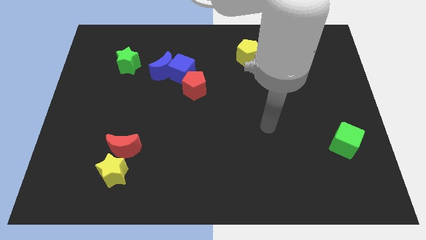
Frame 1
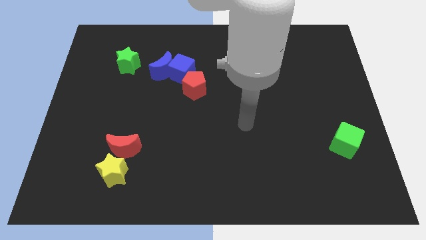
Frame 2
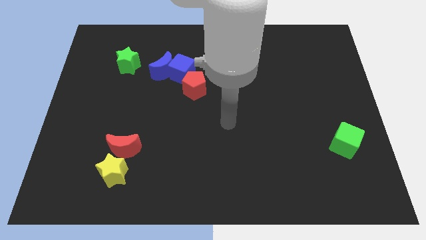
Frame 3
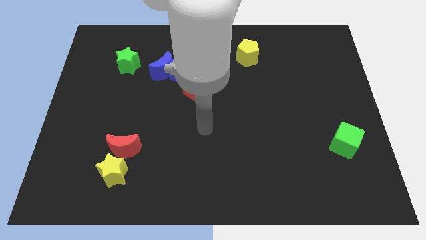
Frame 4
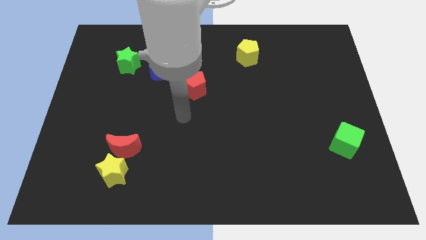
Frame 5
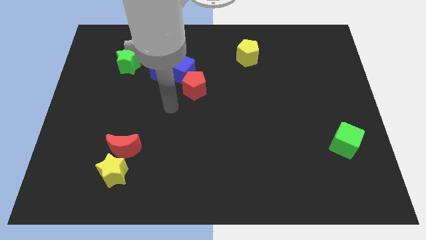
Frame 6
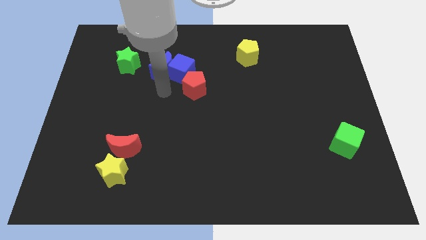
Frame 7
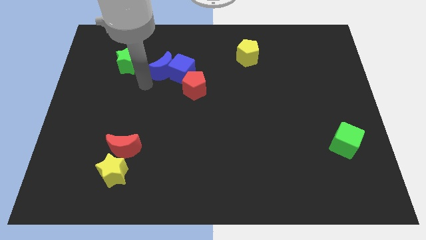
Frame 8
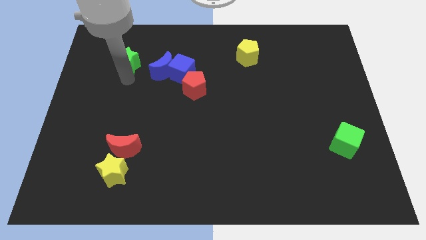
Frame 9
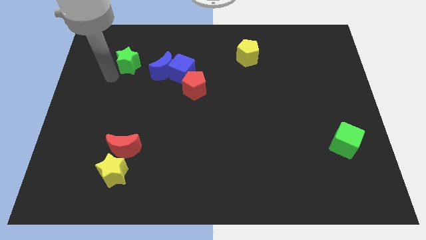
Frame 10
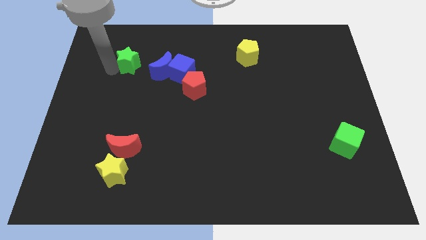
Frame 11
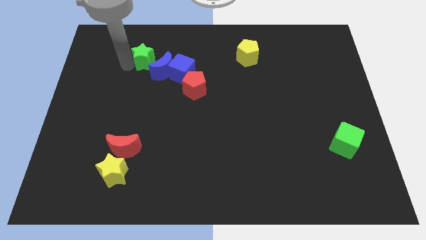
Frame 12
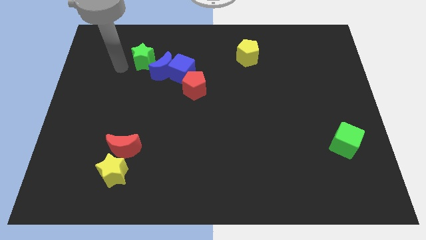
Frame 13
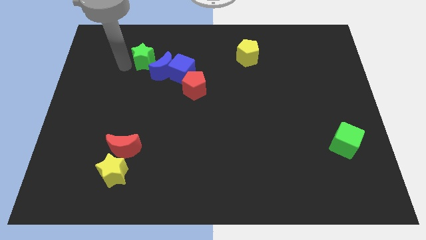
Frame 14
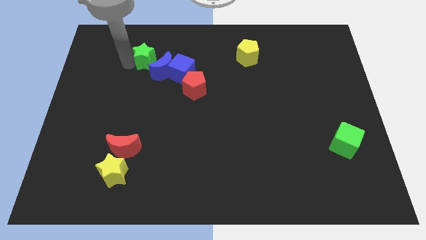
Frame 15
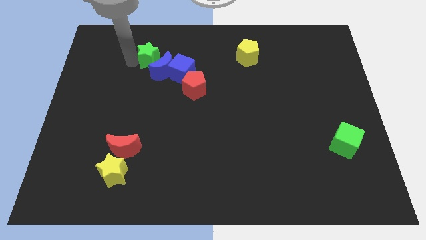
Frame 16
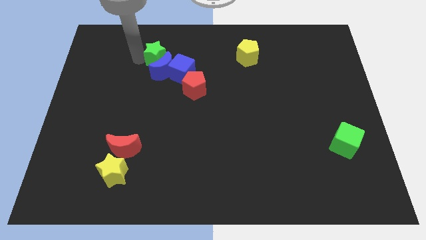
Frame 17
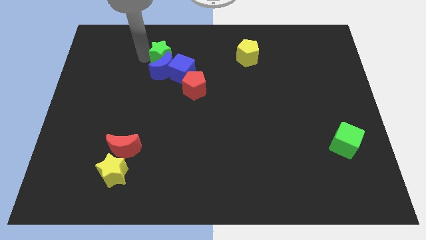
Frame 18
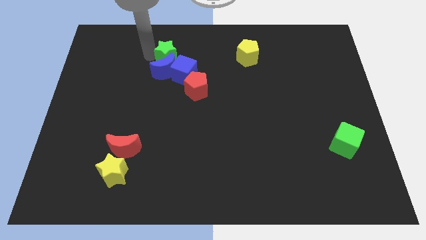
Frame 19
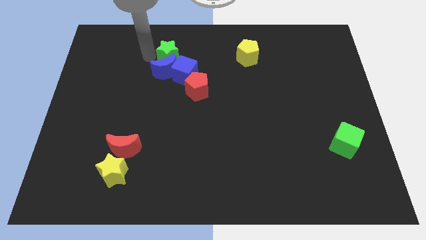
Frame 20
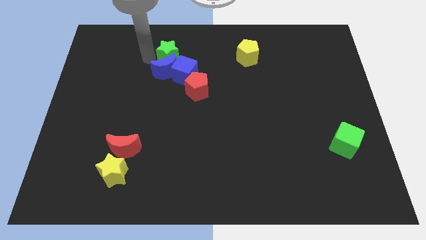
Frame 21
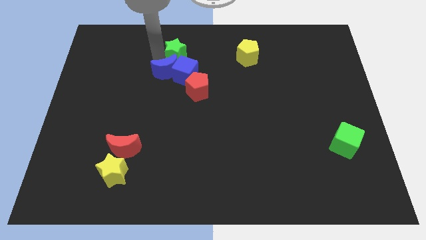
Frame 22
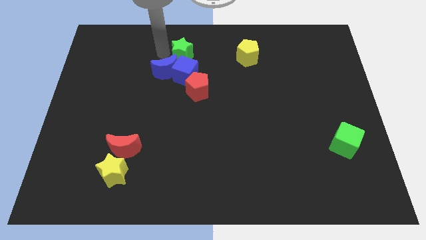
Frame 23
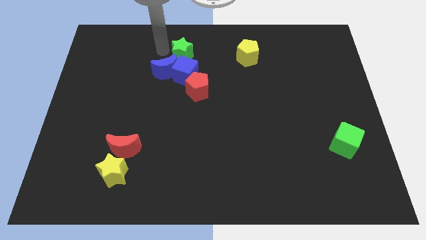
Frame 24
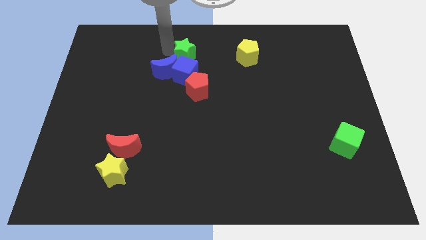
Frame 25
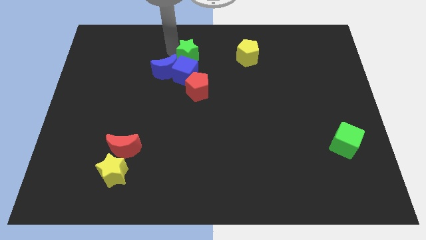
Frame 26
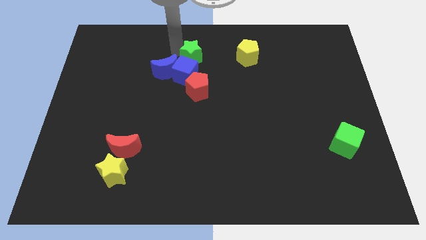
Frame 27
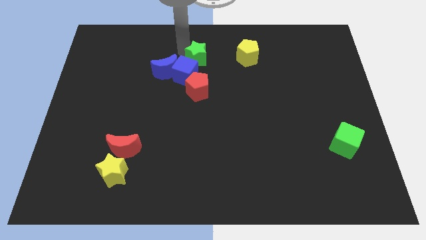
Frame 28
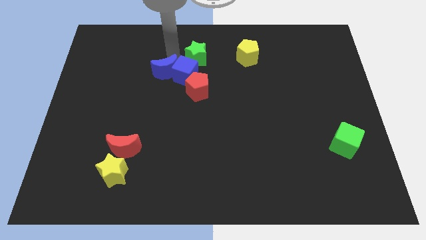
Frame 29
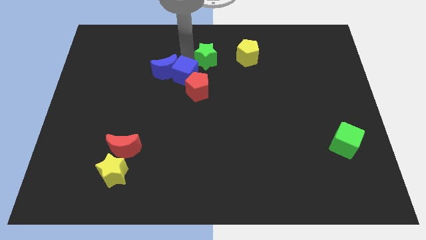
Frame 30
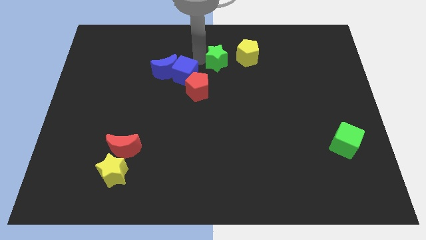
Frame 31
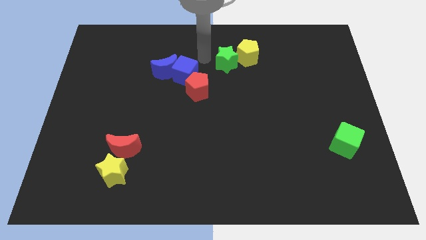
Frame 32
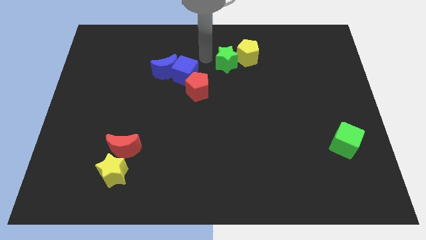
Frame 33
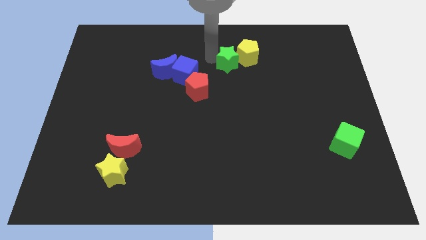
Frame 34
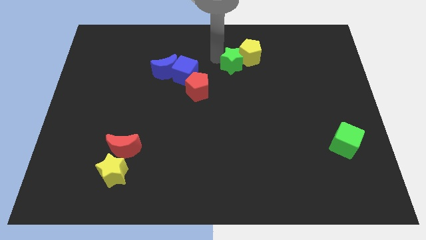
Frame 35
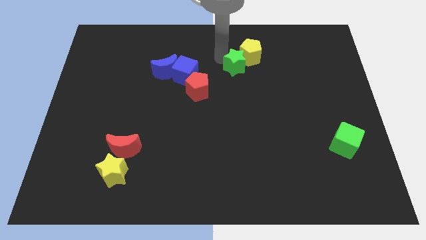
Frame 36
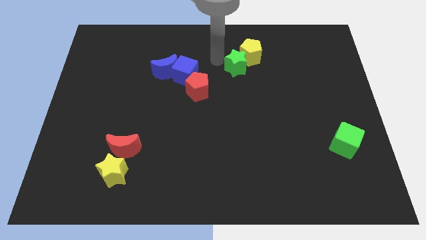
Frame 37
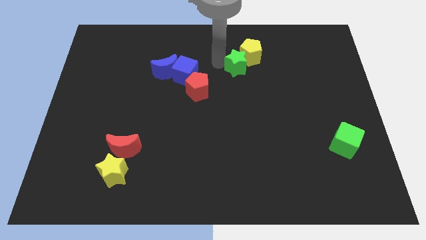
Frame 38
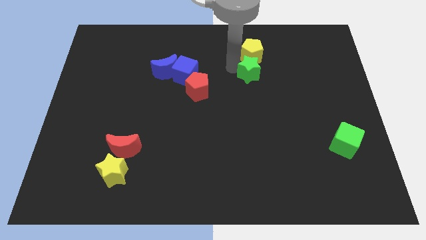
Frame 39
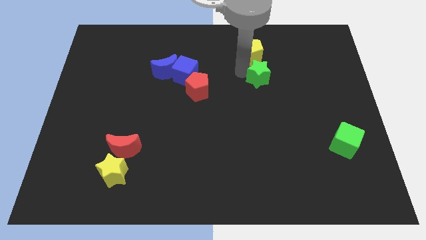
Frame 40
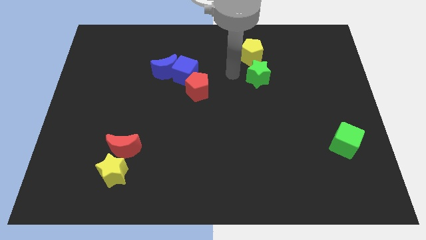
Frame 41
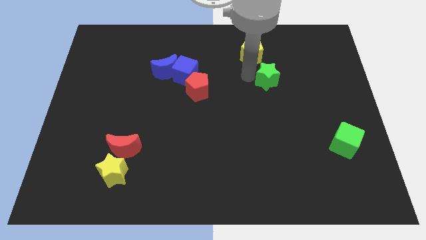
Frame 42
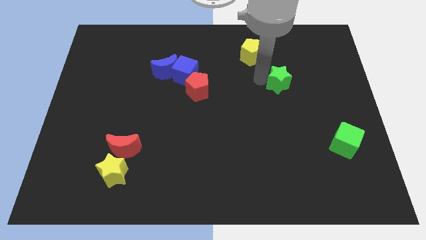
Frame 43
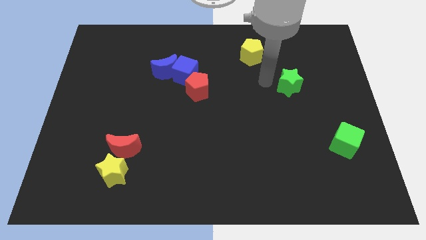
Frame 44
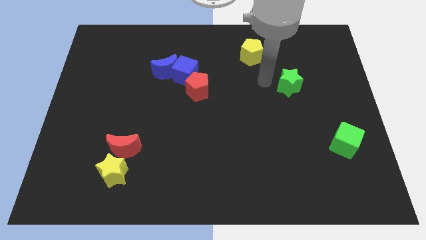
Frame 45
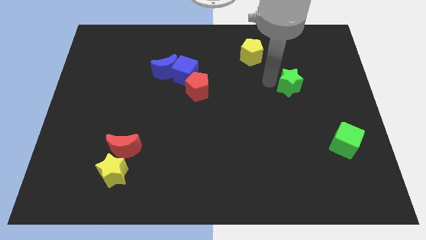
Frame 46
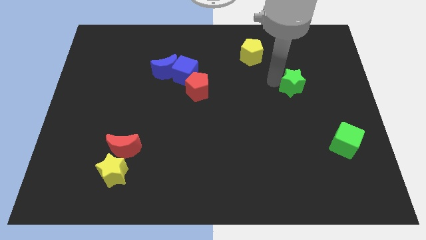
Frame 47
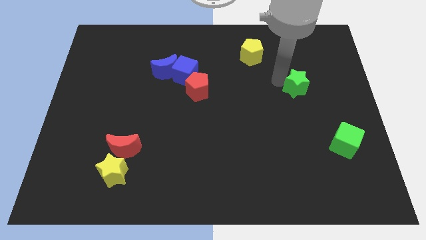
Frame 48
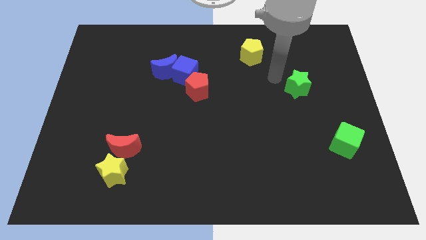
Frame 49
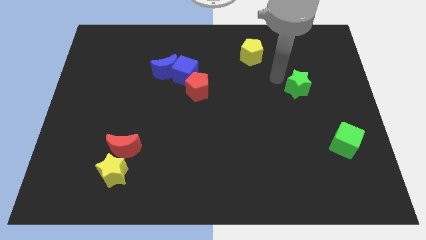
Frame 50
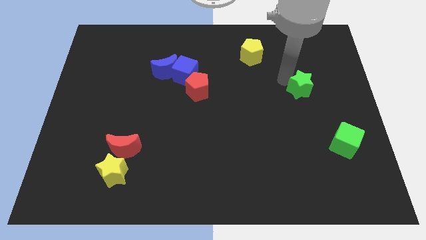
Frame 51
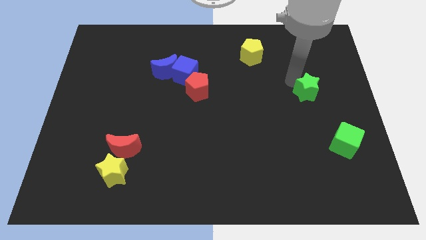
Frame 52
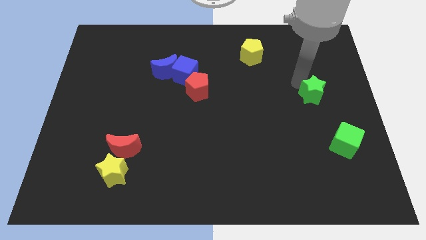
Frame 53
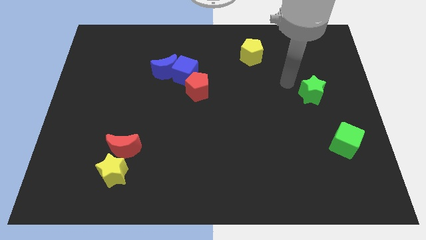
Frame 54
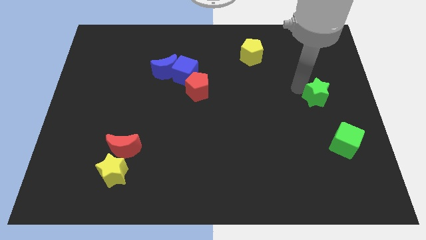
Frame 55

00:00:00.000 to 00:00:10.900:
slide the green star above the green cube

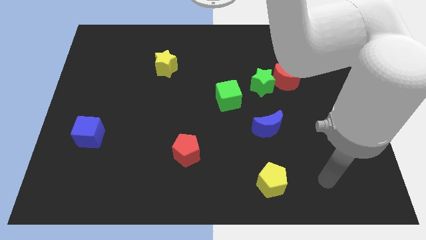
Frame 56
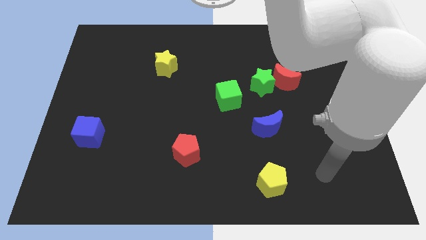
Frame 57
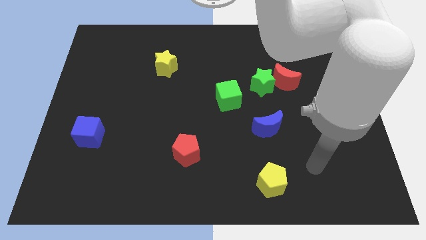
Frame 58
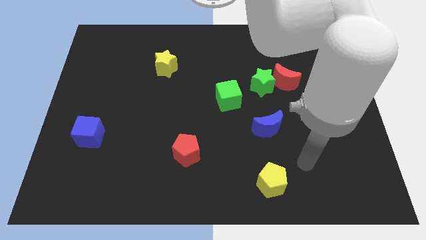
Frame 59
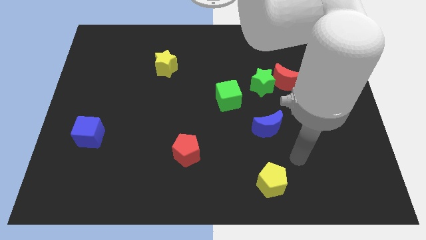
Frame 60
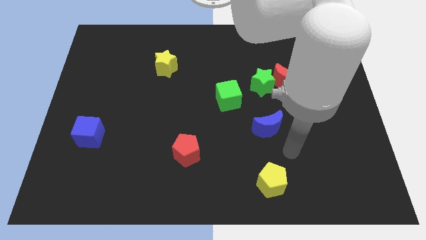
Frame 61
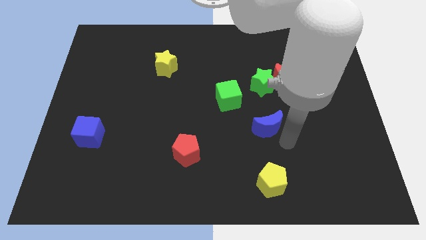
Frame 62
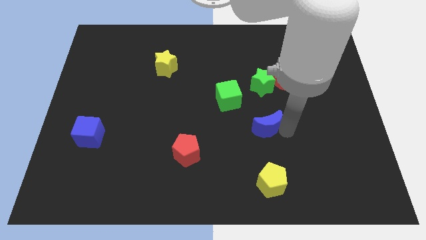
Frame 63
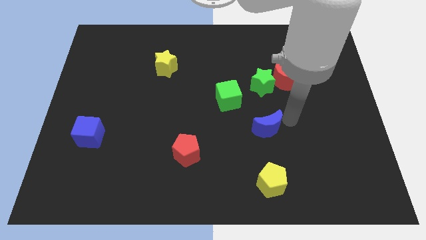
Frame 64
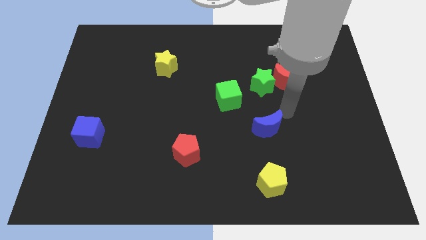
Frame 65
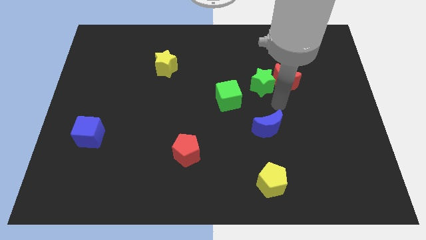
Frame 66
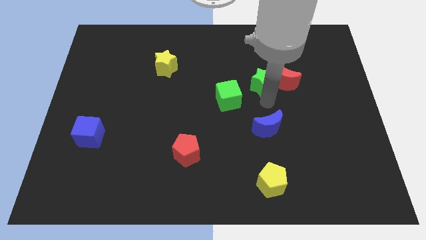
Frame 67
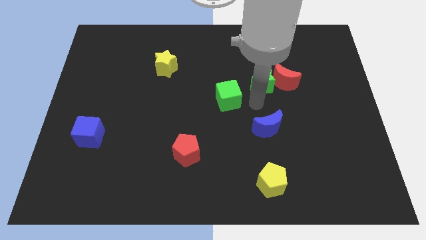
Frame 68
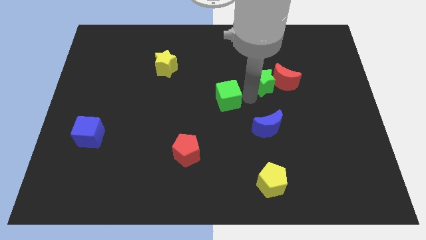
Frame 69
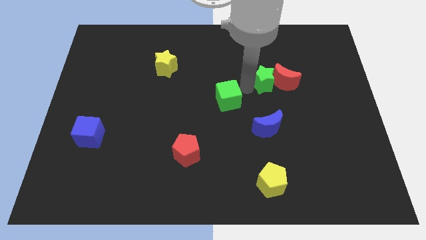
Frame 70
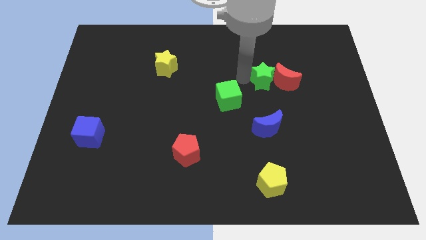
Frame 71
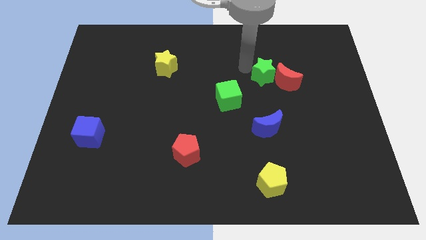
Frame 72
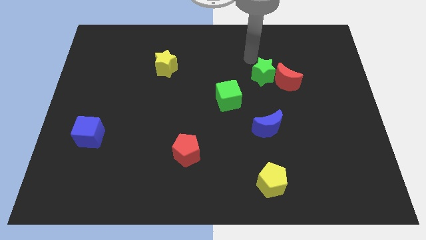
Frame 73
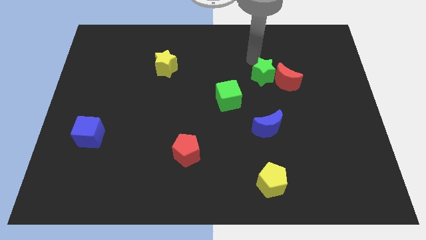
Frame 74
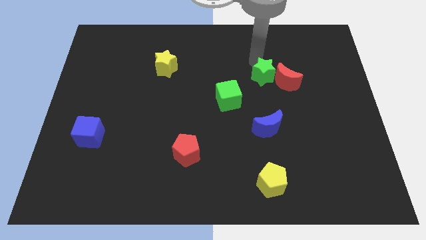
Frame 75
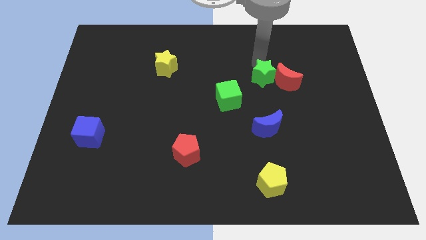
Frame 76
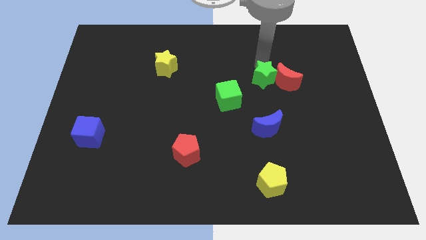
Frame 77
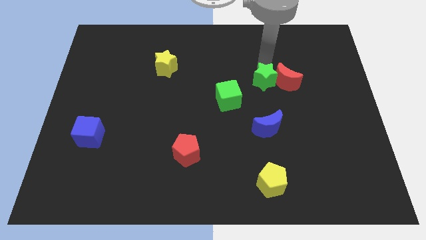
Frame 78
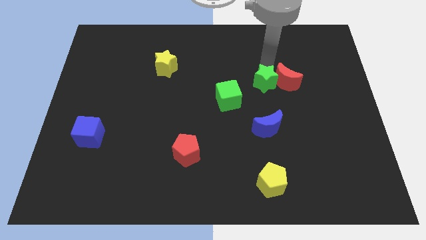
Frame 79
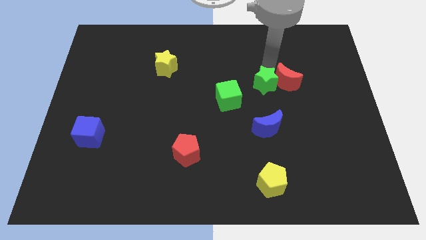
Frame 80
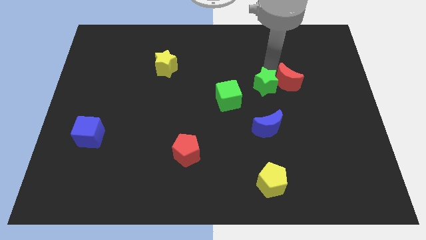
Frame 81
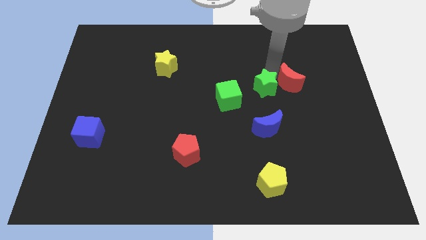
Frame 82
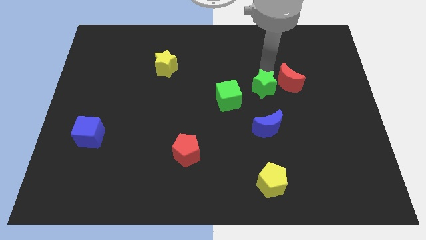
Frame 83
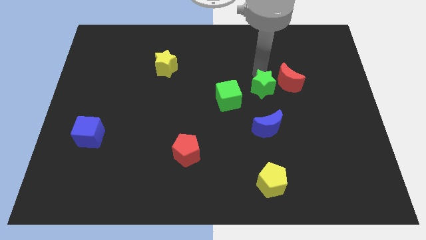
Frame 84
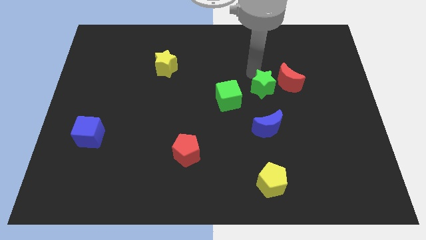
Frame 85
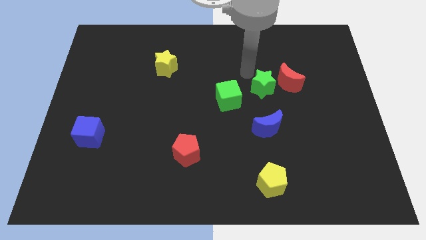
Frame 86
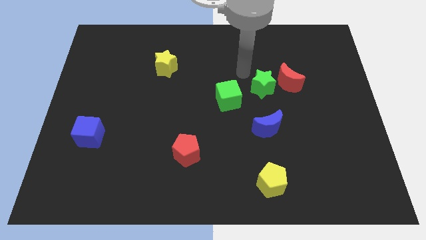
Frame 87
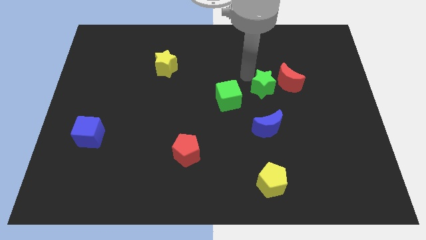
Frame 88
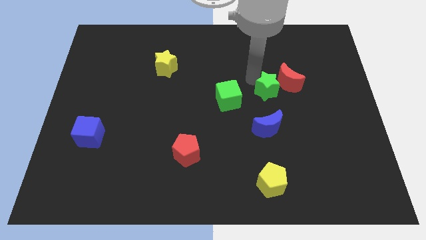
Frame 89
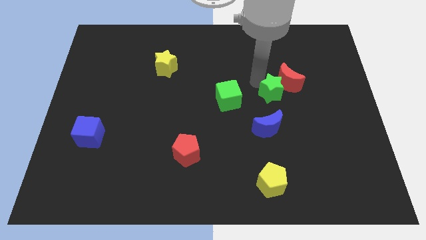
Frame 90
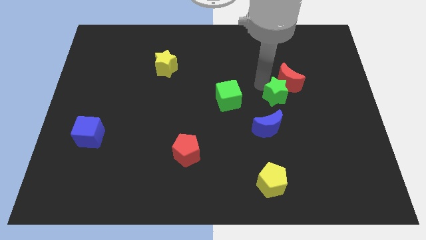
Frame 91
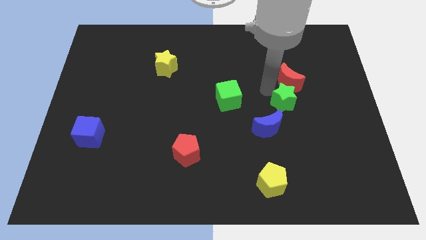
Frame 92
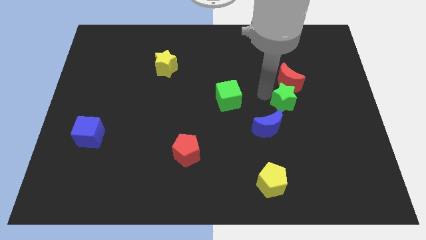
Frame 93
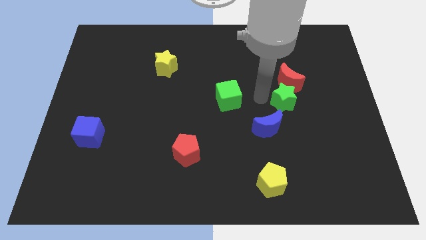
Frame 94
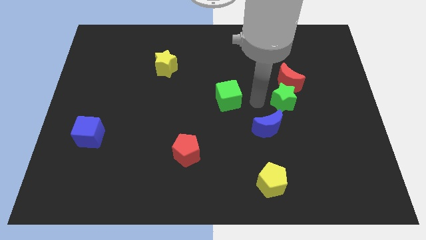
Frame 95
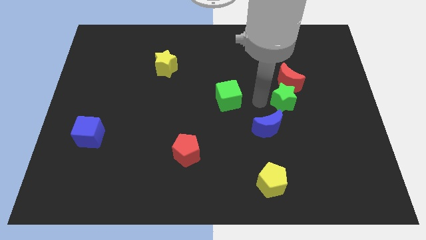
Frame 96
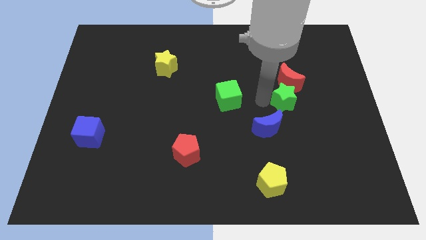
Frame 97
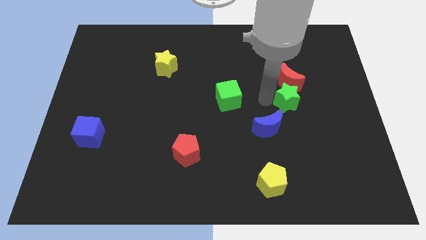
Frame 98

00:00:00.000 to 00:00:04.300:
slide the green star to the bottom right of the red moon
